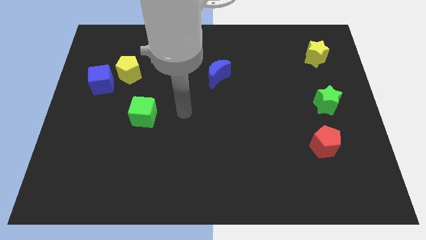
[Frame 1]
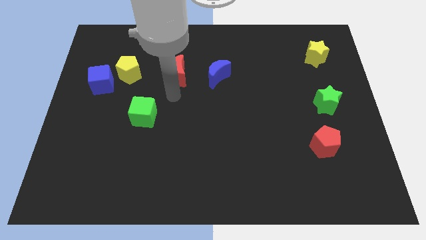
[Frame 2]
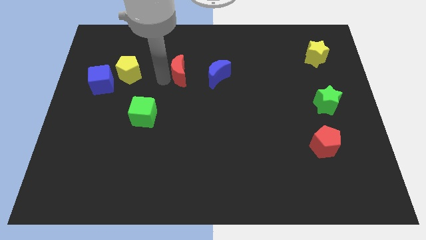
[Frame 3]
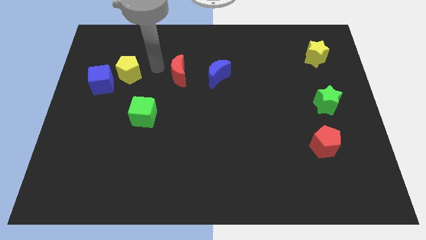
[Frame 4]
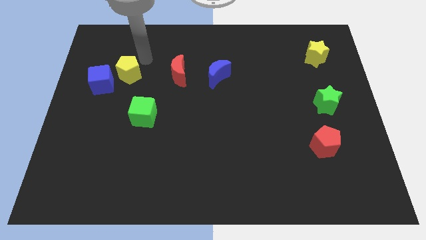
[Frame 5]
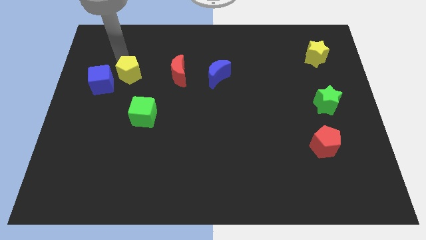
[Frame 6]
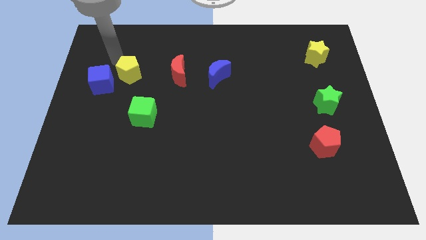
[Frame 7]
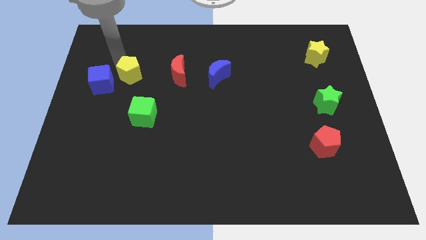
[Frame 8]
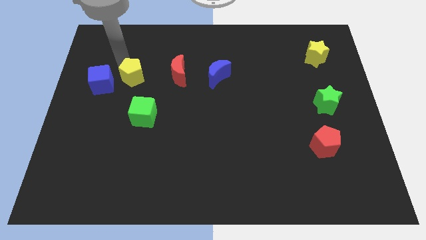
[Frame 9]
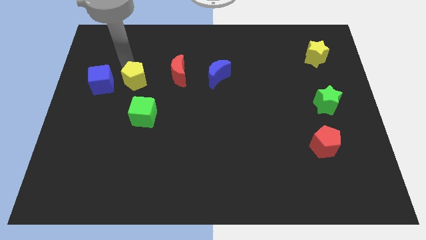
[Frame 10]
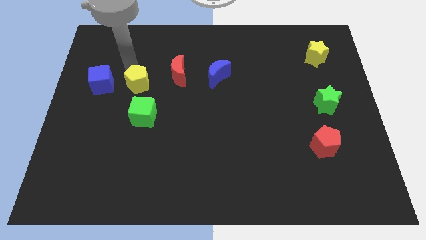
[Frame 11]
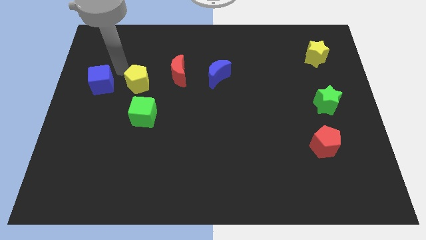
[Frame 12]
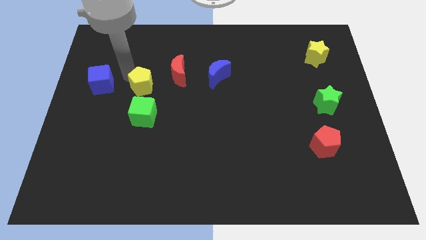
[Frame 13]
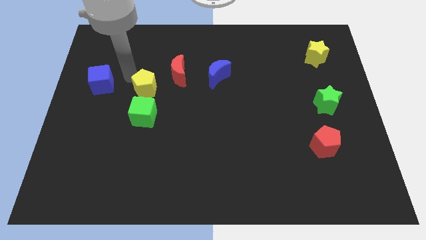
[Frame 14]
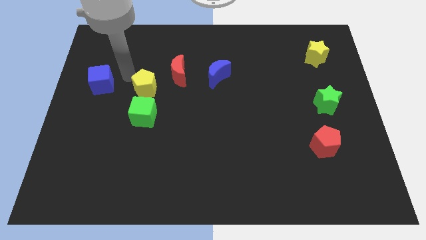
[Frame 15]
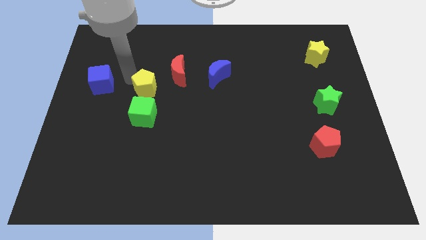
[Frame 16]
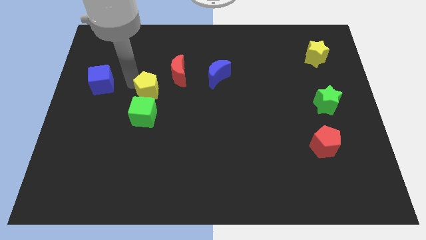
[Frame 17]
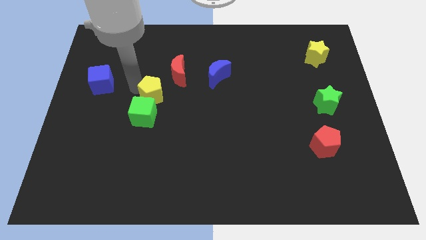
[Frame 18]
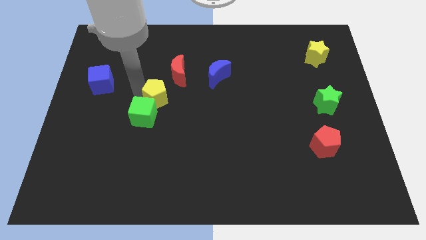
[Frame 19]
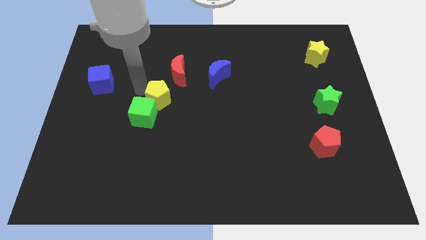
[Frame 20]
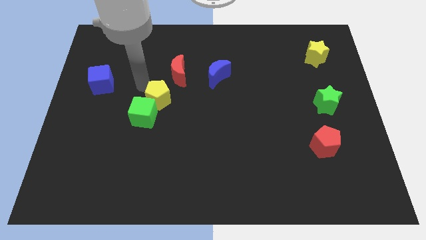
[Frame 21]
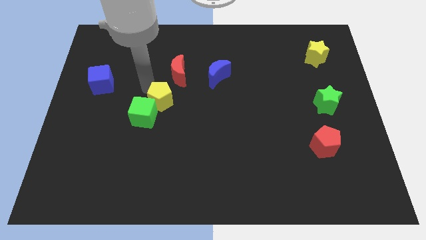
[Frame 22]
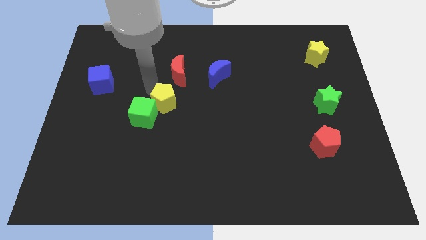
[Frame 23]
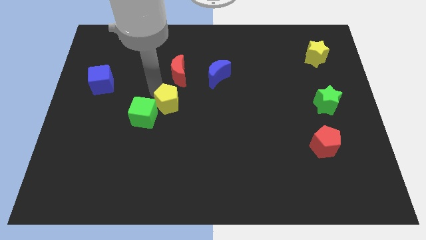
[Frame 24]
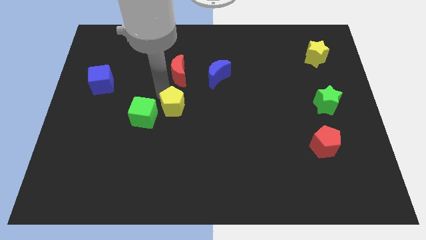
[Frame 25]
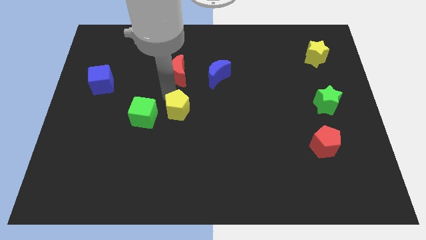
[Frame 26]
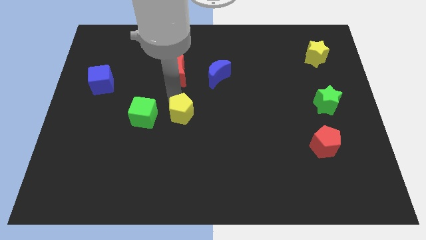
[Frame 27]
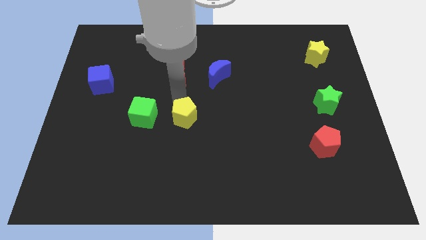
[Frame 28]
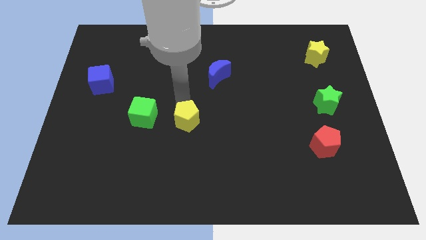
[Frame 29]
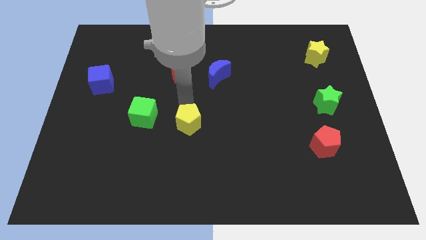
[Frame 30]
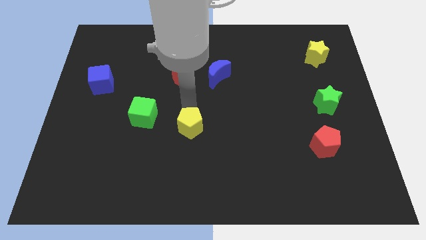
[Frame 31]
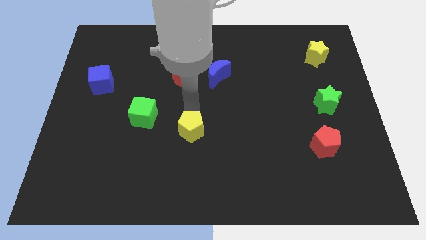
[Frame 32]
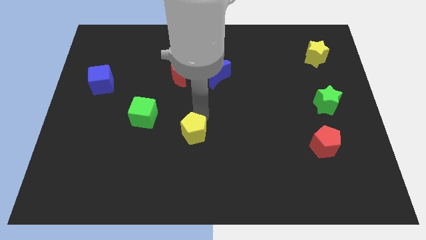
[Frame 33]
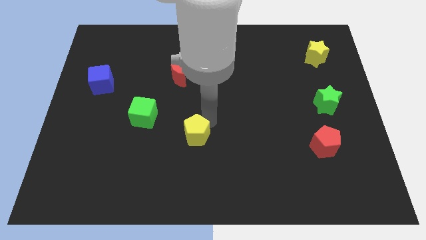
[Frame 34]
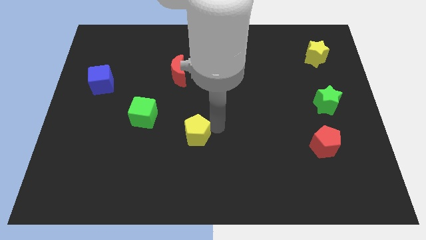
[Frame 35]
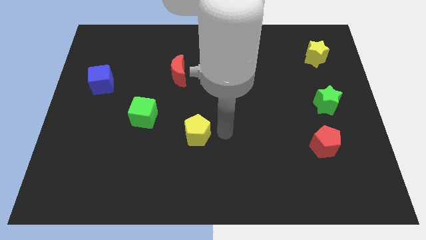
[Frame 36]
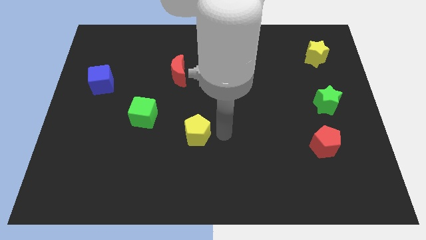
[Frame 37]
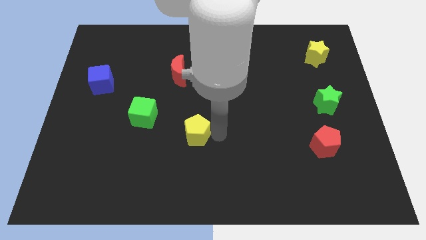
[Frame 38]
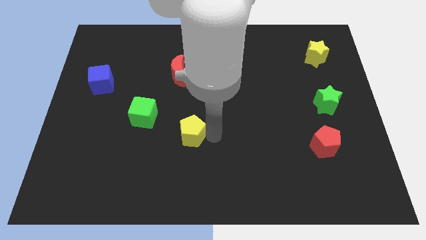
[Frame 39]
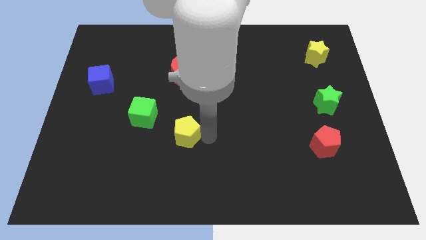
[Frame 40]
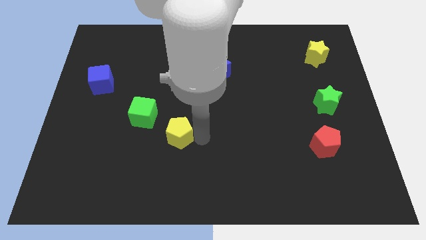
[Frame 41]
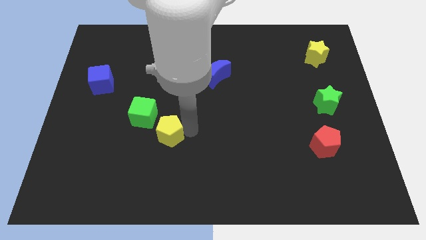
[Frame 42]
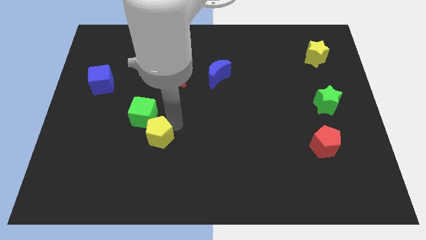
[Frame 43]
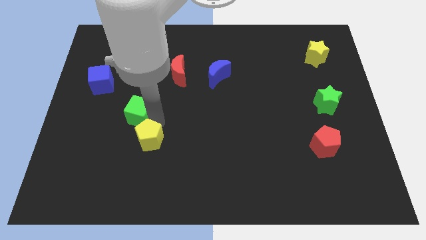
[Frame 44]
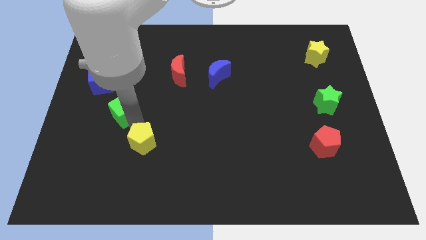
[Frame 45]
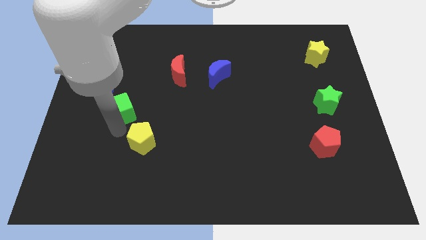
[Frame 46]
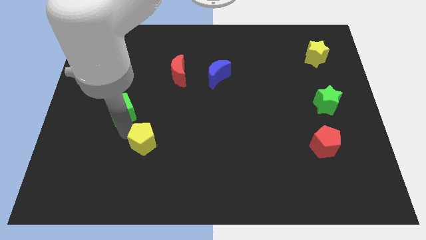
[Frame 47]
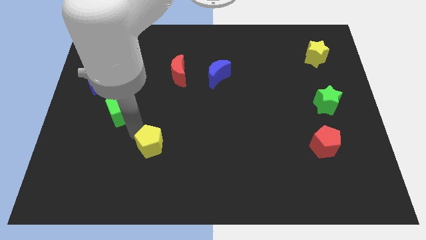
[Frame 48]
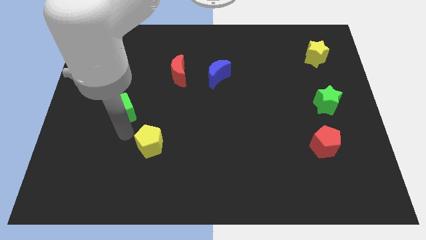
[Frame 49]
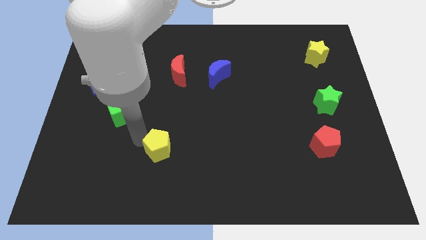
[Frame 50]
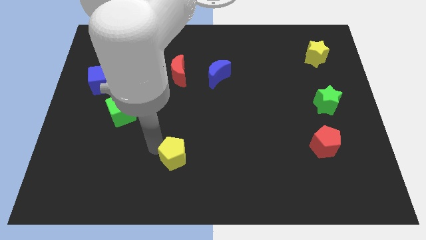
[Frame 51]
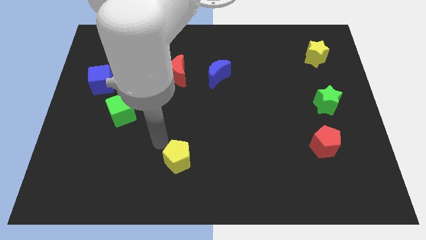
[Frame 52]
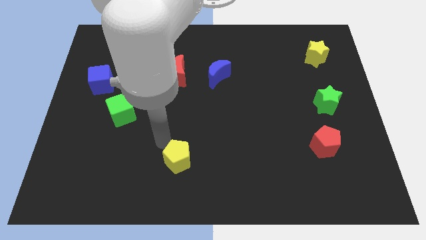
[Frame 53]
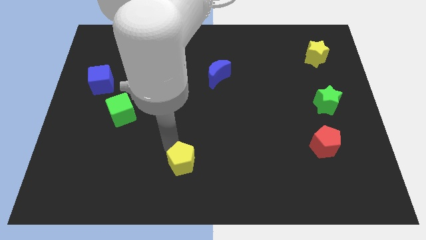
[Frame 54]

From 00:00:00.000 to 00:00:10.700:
slide the yellow pentagon to the bottom

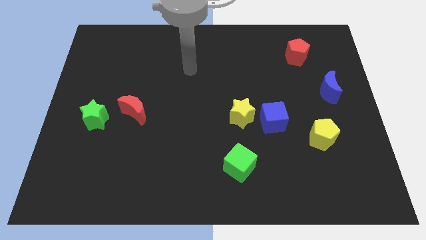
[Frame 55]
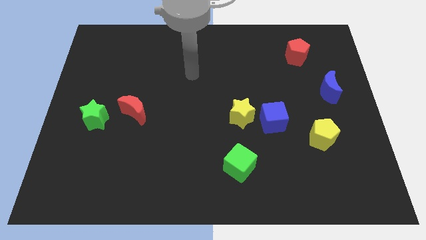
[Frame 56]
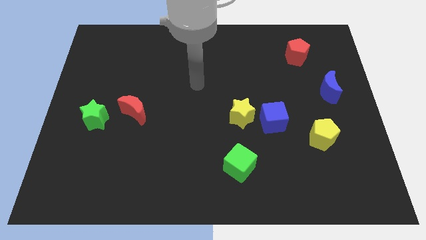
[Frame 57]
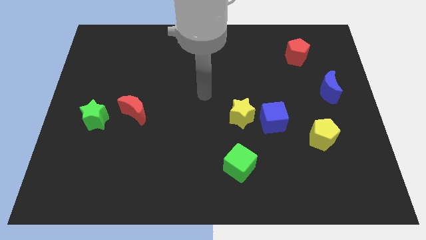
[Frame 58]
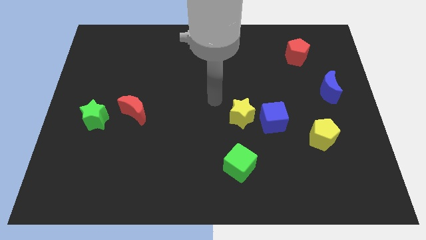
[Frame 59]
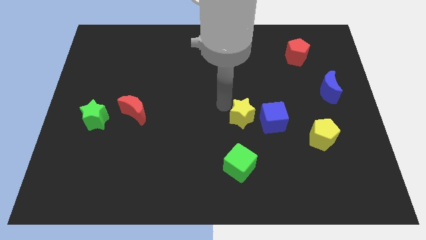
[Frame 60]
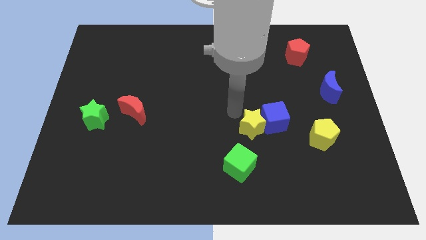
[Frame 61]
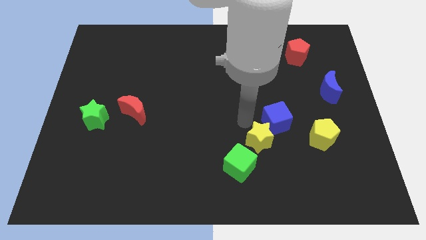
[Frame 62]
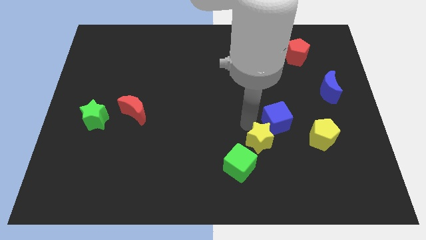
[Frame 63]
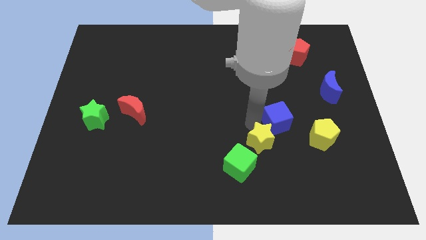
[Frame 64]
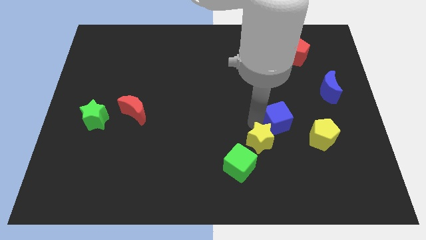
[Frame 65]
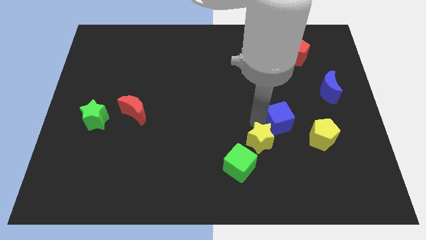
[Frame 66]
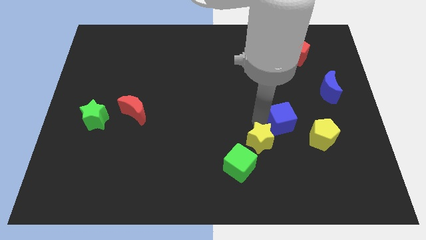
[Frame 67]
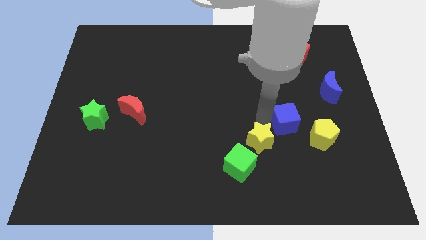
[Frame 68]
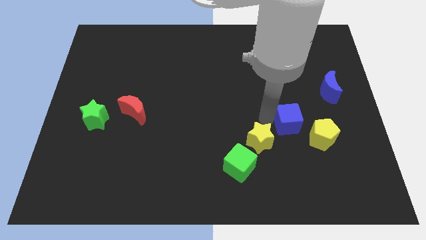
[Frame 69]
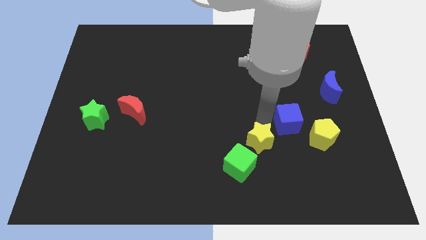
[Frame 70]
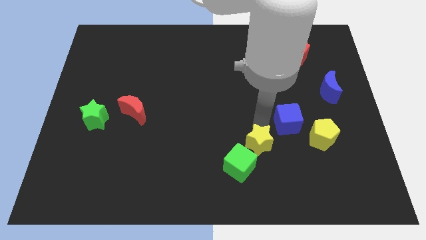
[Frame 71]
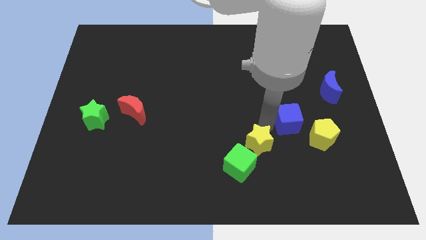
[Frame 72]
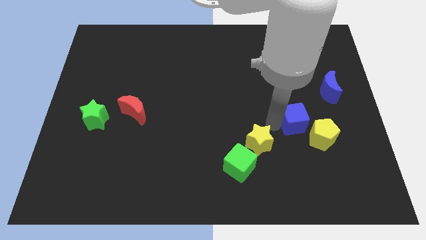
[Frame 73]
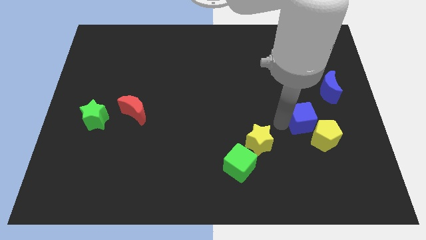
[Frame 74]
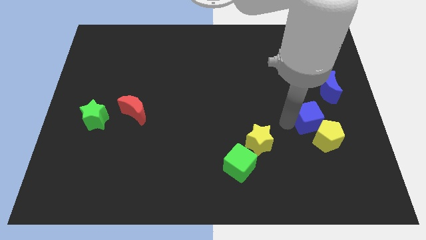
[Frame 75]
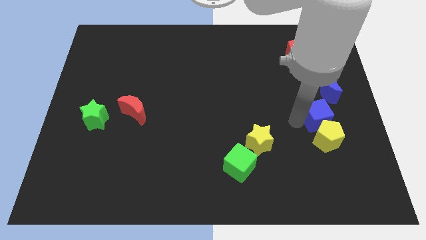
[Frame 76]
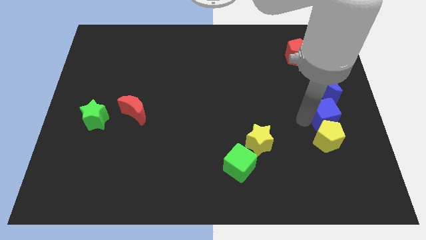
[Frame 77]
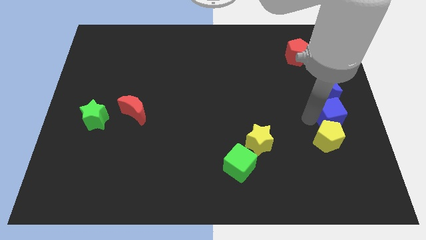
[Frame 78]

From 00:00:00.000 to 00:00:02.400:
slide the blue cube to the center right
